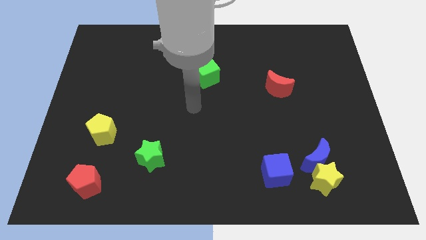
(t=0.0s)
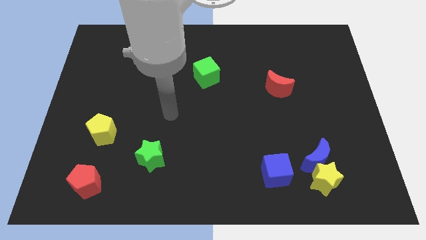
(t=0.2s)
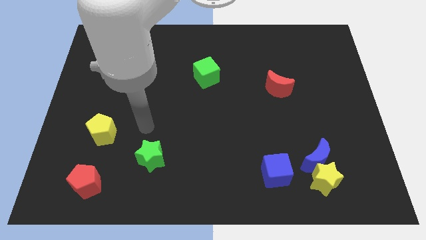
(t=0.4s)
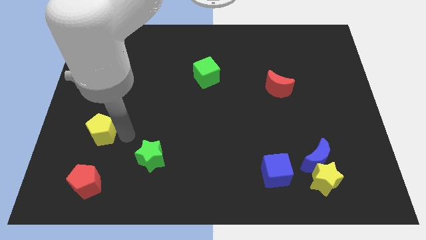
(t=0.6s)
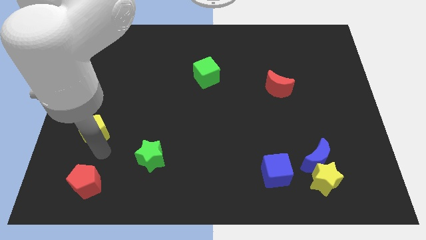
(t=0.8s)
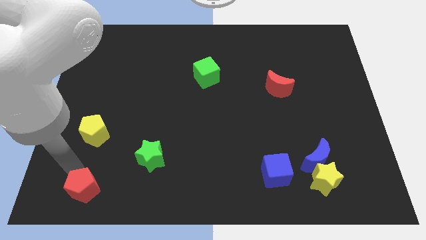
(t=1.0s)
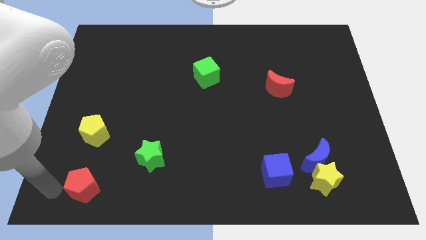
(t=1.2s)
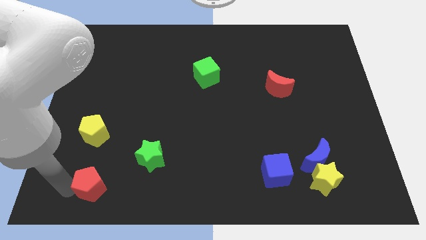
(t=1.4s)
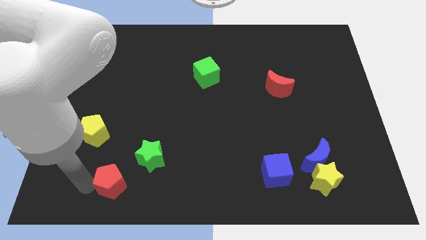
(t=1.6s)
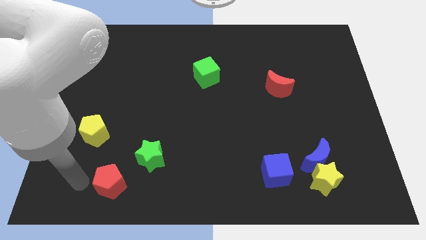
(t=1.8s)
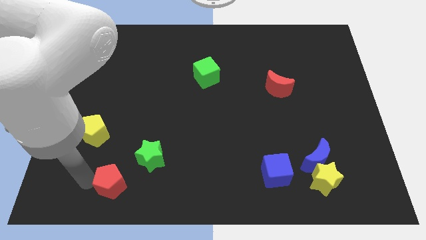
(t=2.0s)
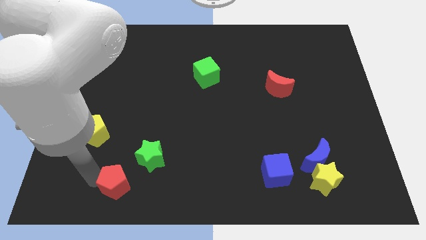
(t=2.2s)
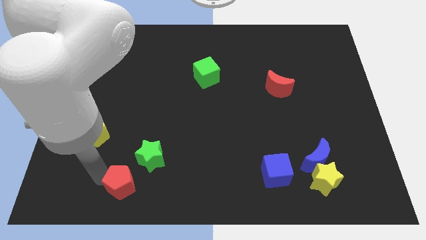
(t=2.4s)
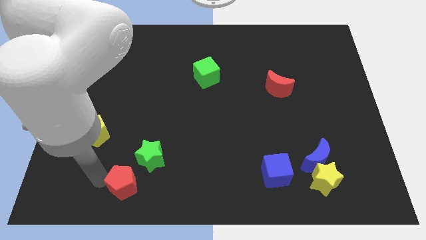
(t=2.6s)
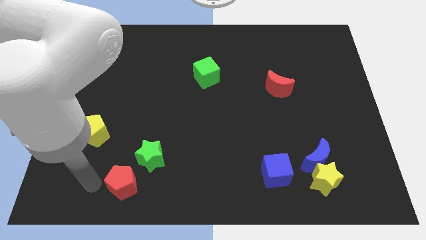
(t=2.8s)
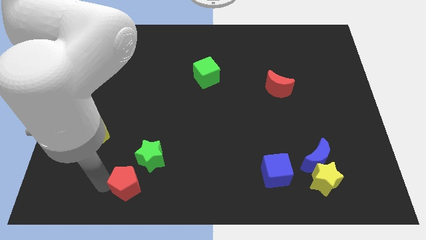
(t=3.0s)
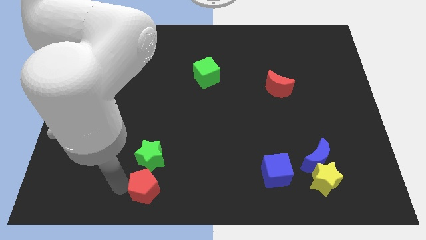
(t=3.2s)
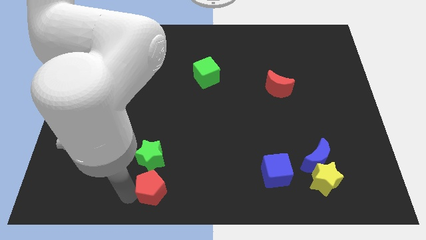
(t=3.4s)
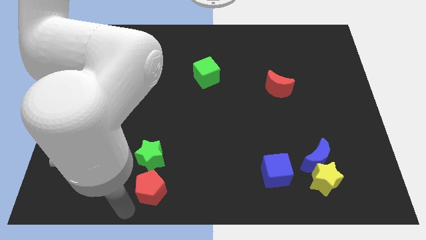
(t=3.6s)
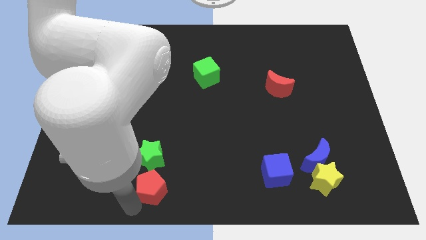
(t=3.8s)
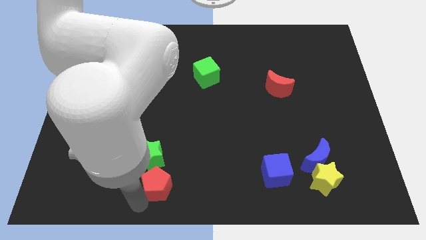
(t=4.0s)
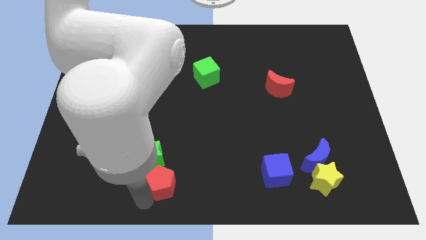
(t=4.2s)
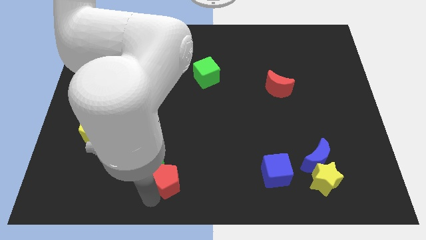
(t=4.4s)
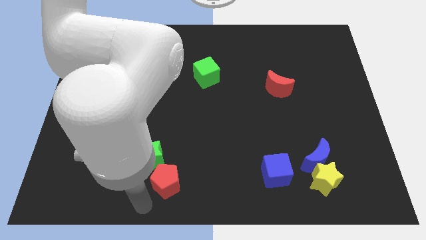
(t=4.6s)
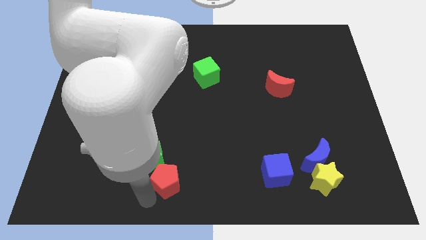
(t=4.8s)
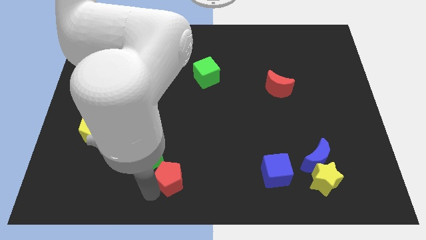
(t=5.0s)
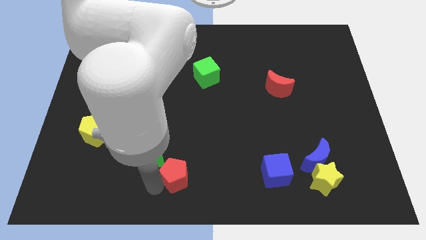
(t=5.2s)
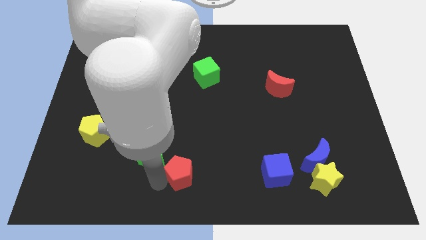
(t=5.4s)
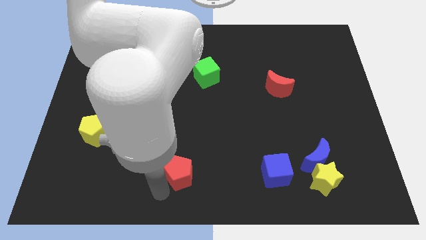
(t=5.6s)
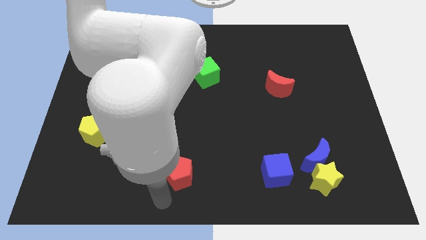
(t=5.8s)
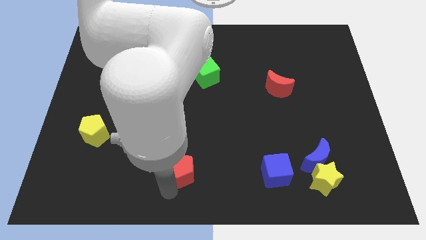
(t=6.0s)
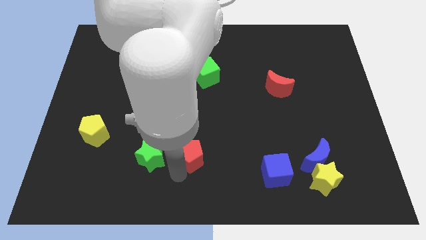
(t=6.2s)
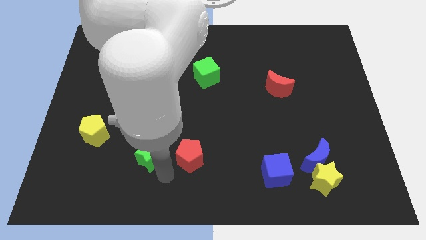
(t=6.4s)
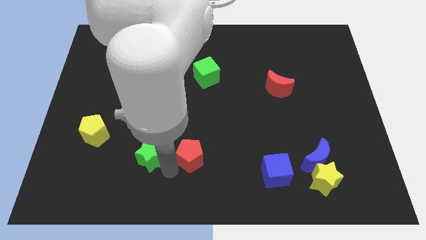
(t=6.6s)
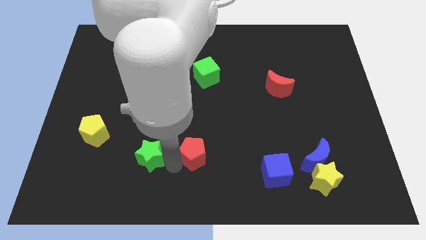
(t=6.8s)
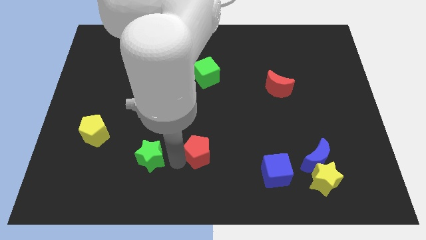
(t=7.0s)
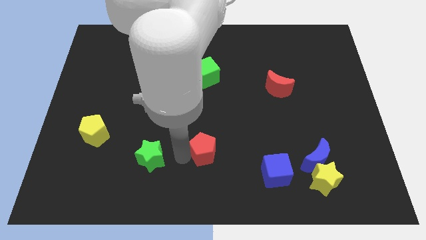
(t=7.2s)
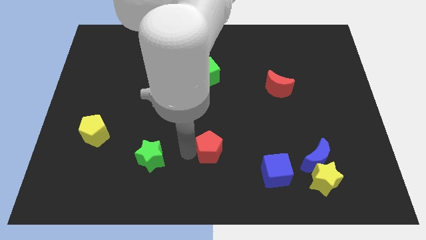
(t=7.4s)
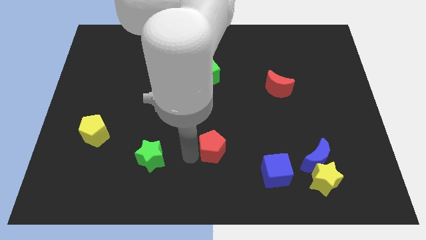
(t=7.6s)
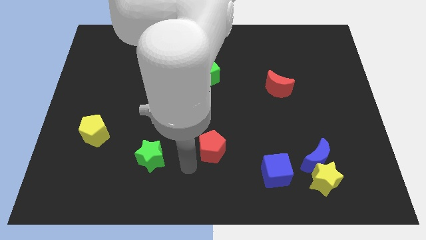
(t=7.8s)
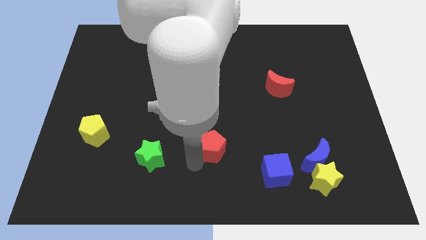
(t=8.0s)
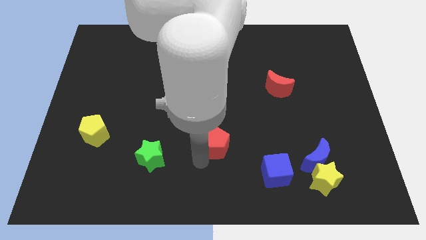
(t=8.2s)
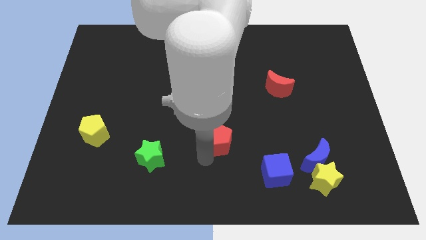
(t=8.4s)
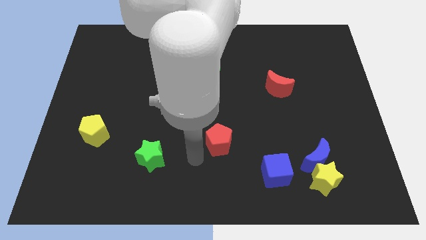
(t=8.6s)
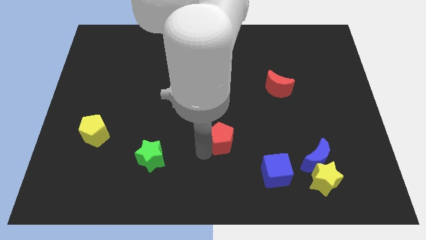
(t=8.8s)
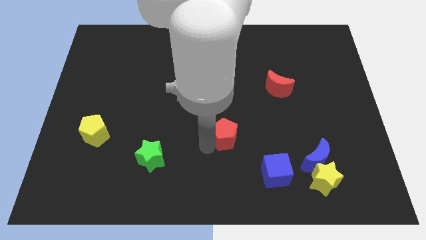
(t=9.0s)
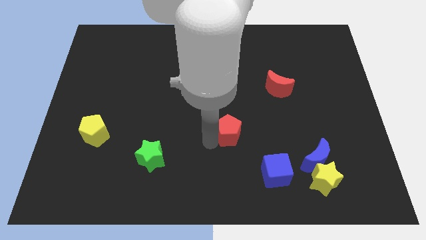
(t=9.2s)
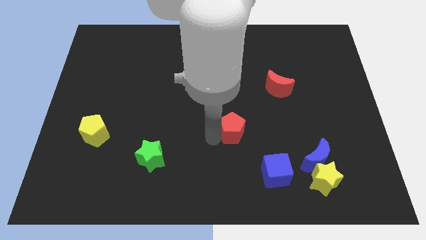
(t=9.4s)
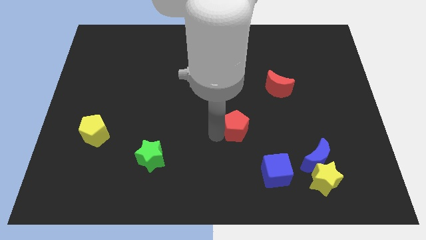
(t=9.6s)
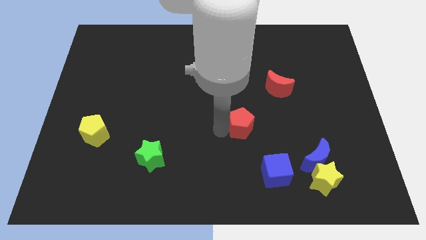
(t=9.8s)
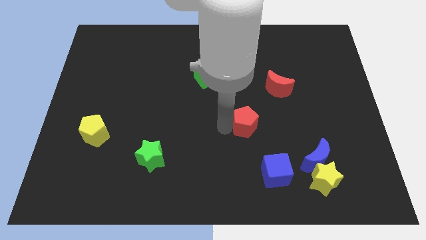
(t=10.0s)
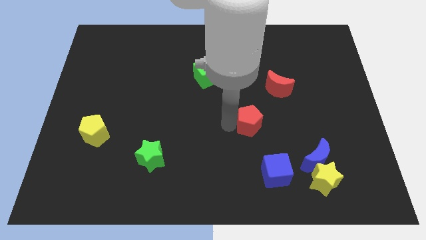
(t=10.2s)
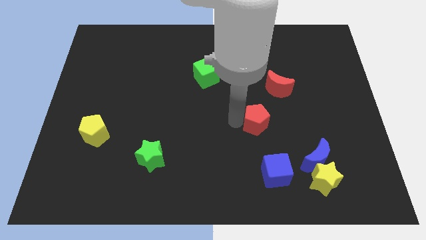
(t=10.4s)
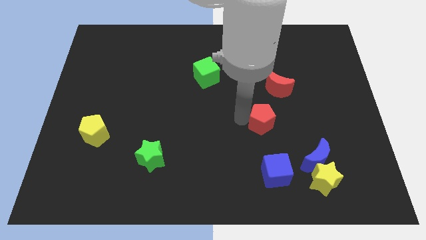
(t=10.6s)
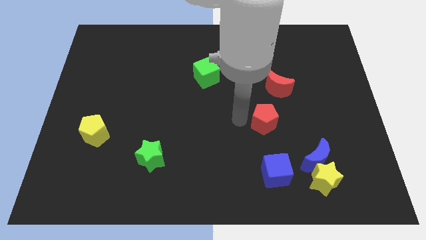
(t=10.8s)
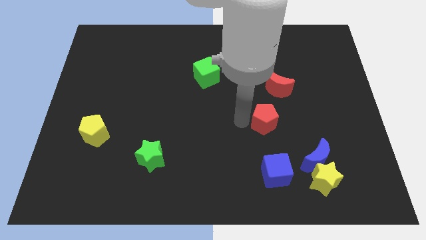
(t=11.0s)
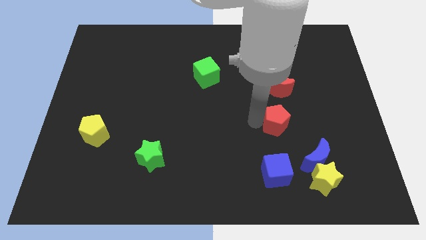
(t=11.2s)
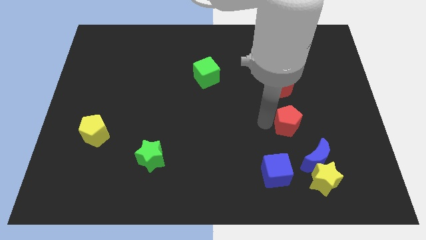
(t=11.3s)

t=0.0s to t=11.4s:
put the red pentagon to the top of the blue moon

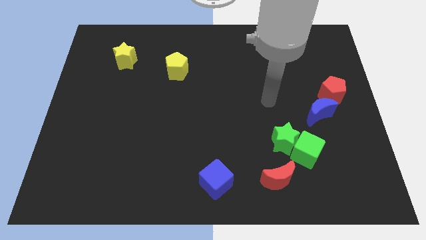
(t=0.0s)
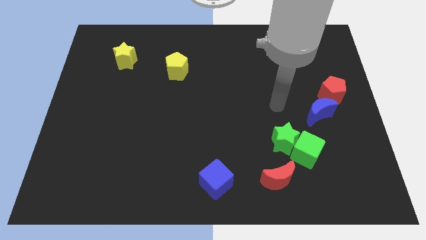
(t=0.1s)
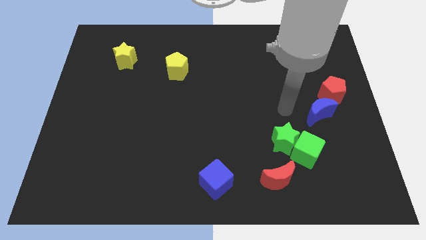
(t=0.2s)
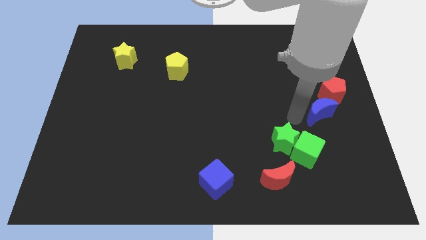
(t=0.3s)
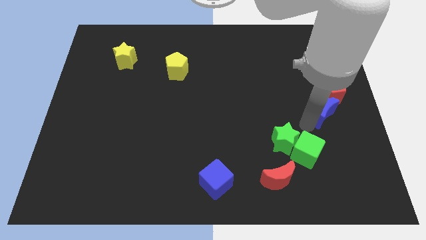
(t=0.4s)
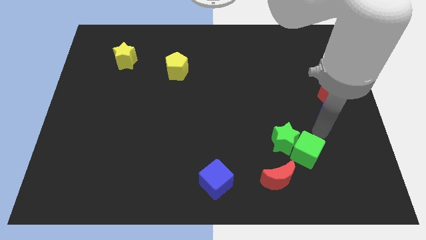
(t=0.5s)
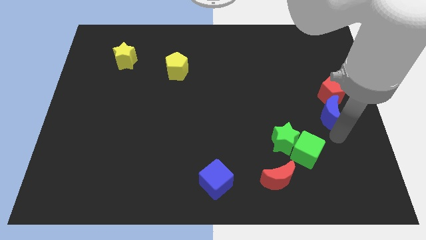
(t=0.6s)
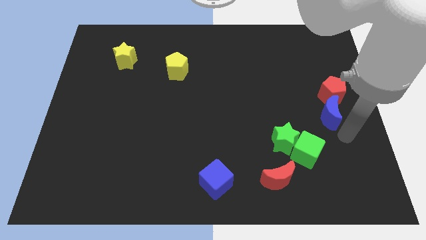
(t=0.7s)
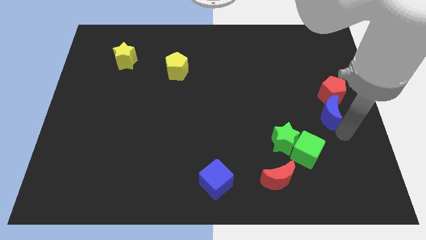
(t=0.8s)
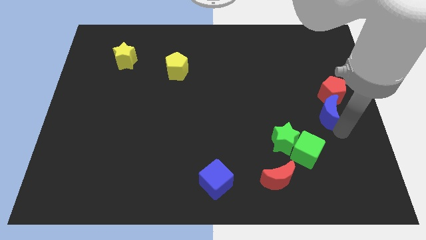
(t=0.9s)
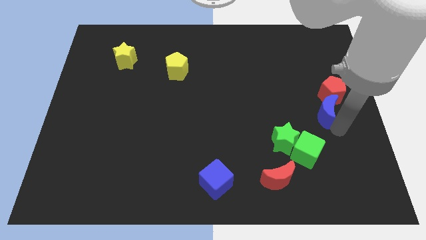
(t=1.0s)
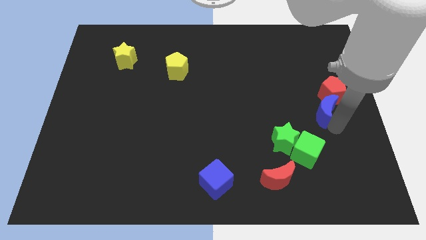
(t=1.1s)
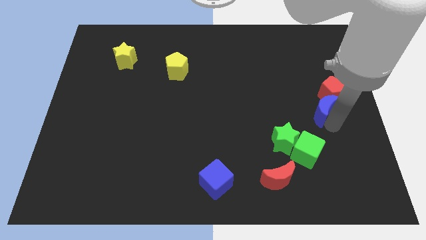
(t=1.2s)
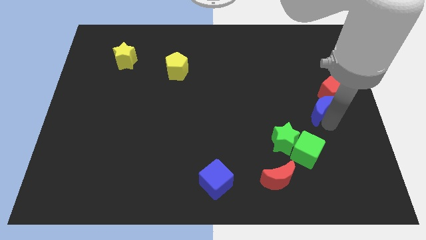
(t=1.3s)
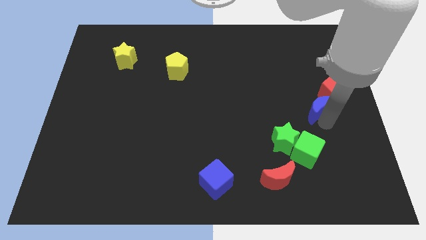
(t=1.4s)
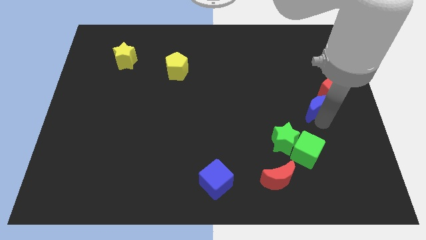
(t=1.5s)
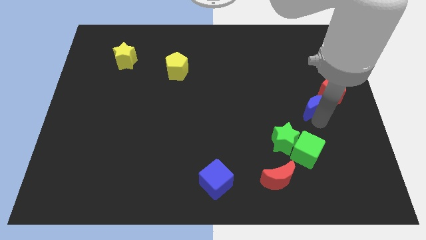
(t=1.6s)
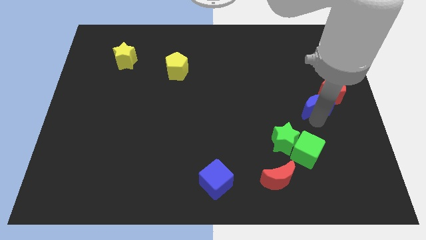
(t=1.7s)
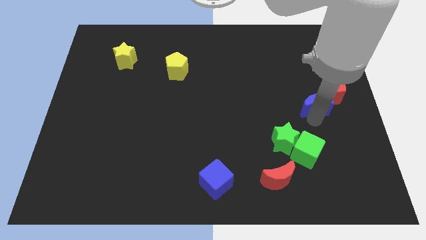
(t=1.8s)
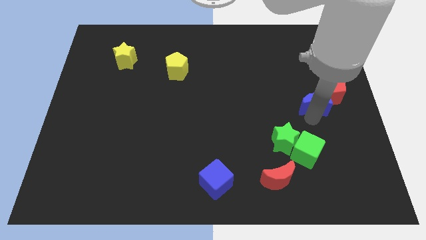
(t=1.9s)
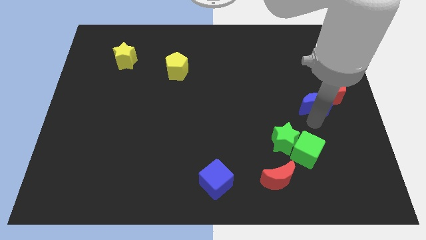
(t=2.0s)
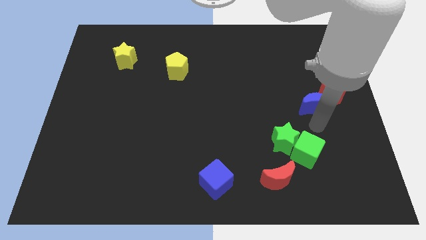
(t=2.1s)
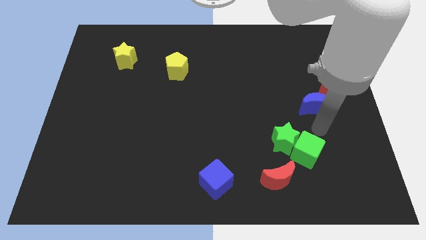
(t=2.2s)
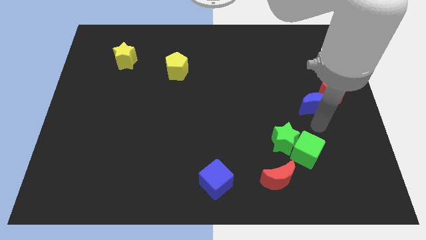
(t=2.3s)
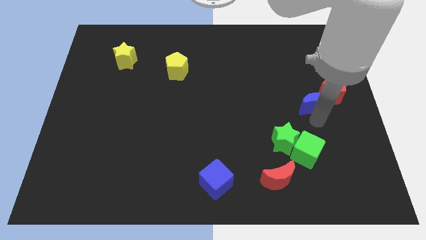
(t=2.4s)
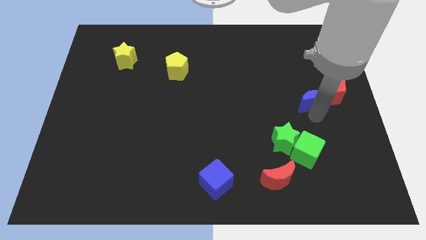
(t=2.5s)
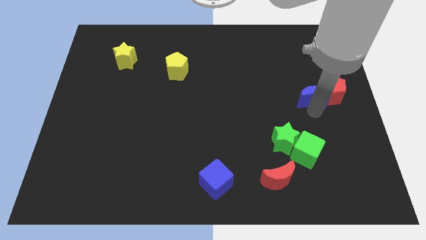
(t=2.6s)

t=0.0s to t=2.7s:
move the blue moon to the top left side of the red pentagon
